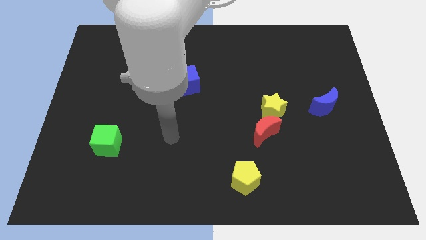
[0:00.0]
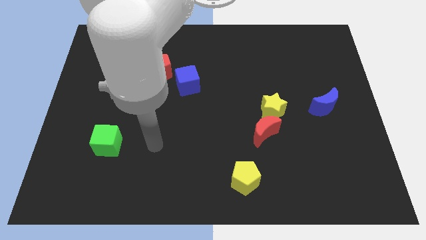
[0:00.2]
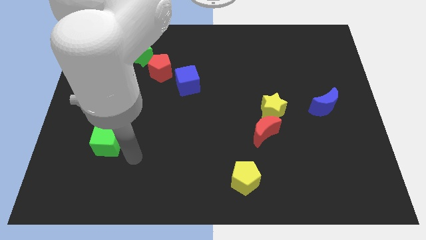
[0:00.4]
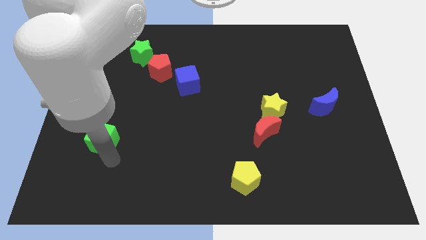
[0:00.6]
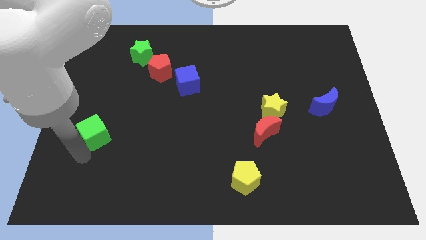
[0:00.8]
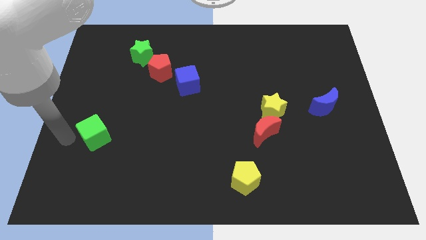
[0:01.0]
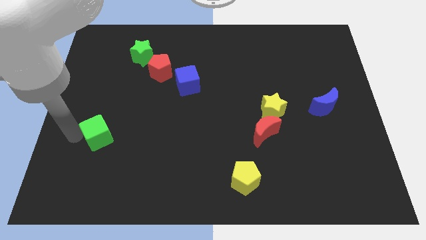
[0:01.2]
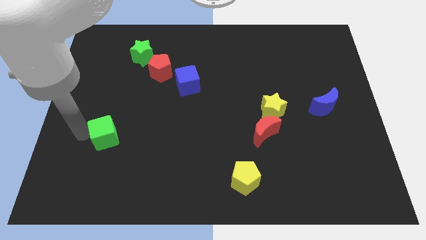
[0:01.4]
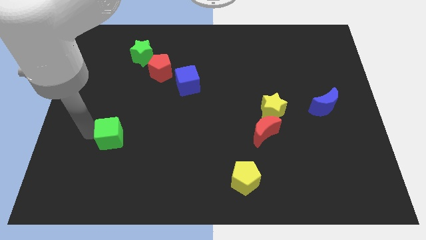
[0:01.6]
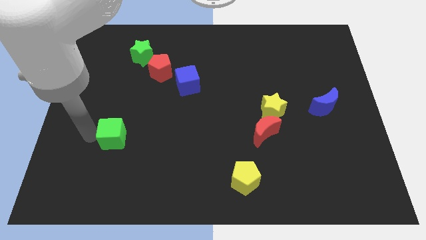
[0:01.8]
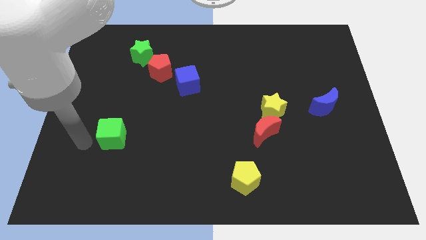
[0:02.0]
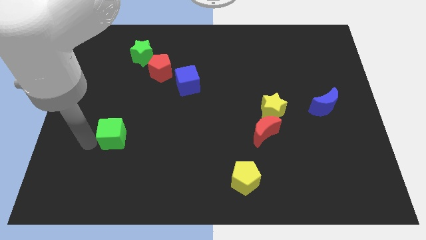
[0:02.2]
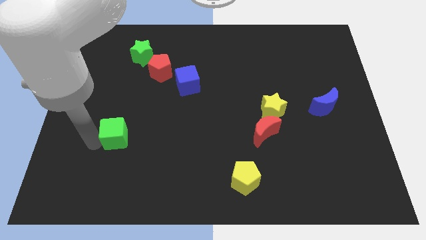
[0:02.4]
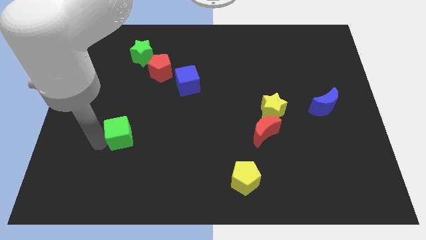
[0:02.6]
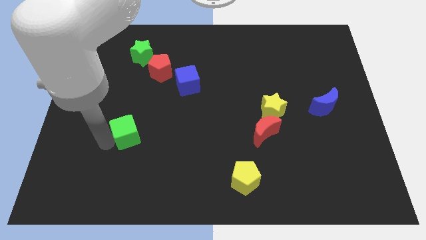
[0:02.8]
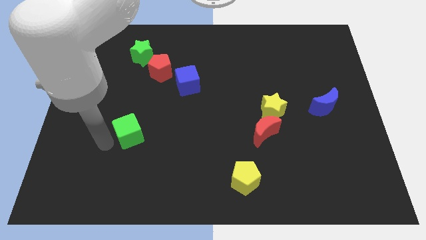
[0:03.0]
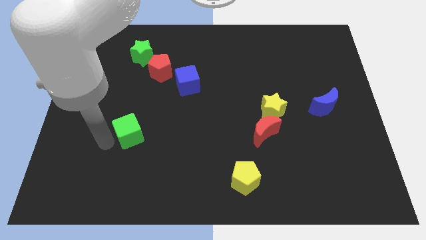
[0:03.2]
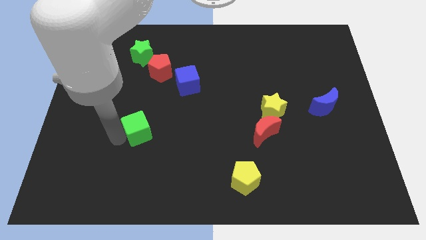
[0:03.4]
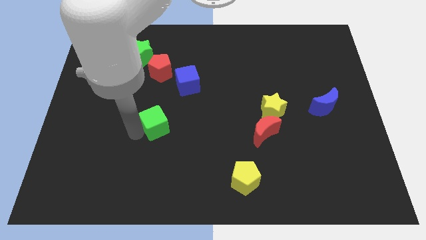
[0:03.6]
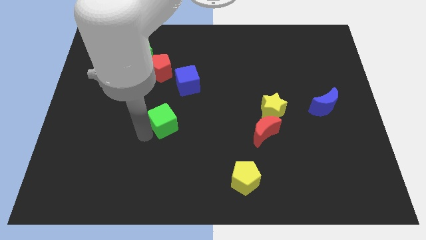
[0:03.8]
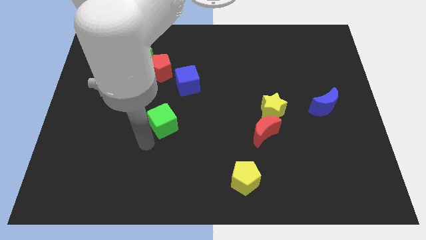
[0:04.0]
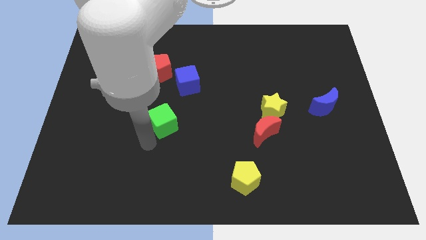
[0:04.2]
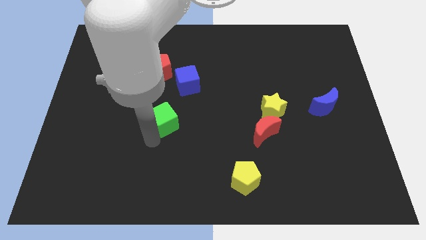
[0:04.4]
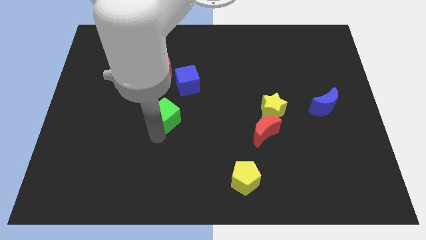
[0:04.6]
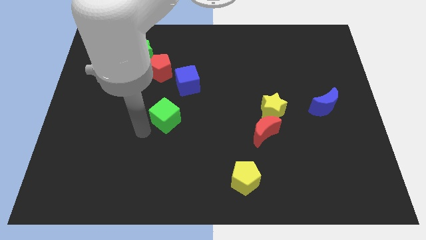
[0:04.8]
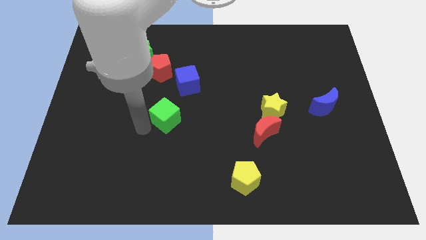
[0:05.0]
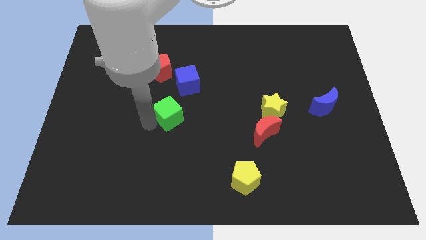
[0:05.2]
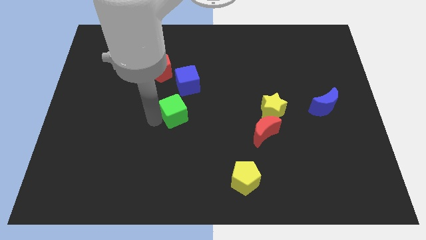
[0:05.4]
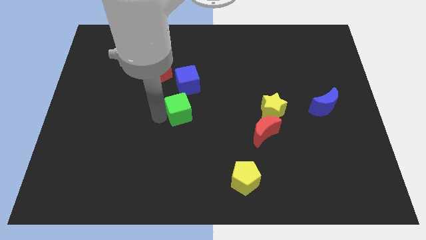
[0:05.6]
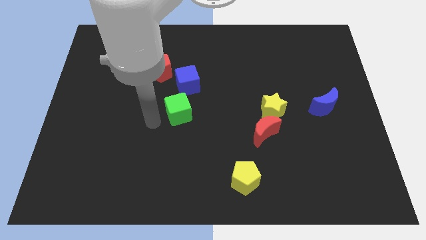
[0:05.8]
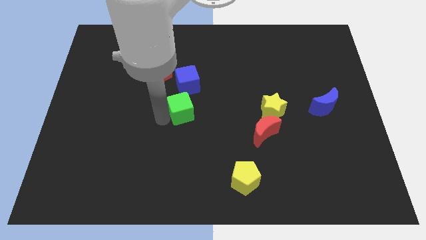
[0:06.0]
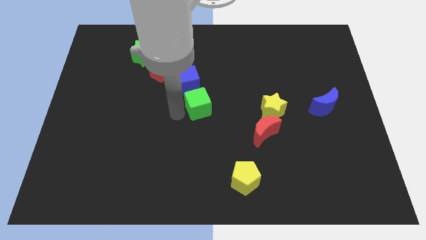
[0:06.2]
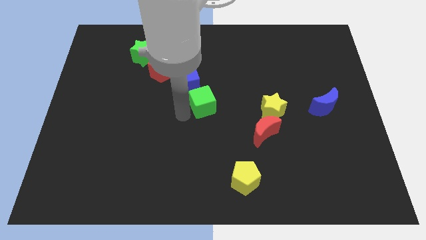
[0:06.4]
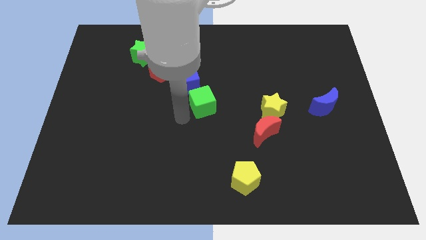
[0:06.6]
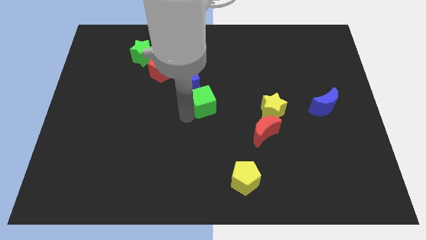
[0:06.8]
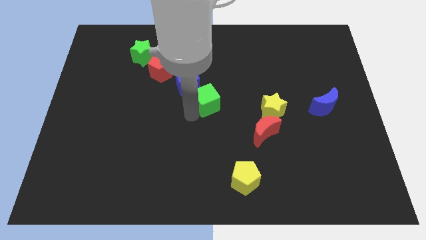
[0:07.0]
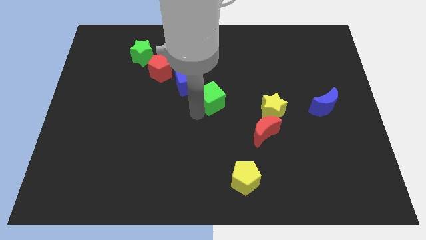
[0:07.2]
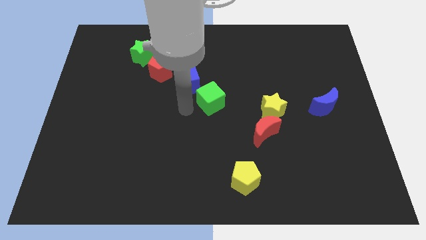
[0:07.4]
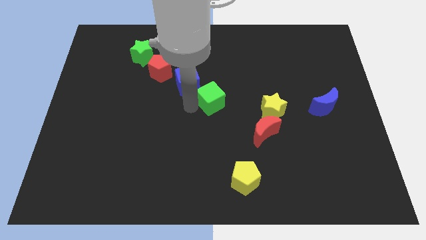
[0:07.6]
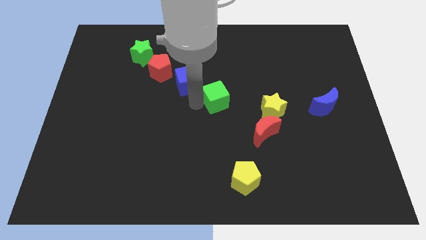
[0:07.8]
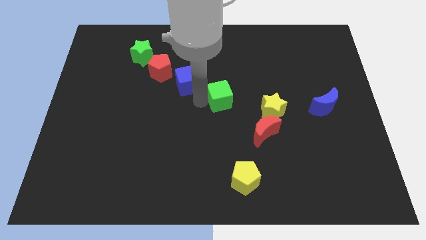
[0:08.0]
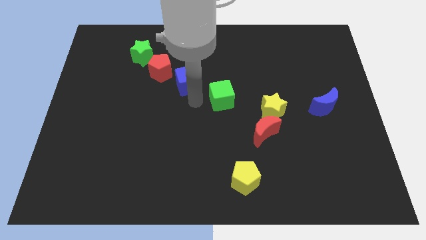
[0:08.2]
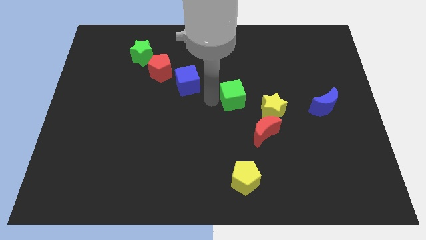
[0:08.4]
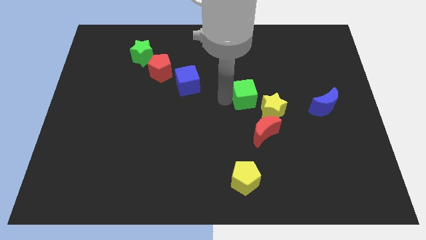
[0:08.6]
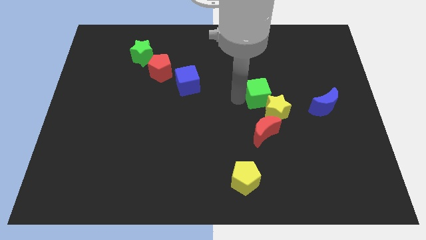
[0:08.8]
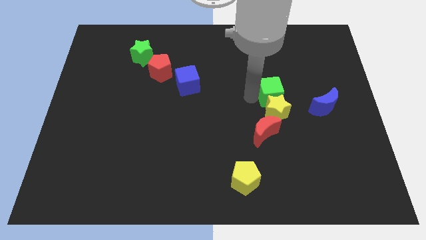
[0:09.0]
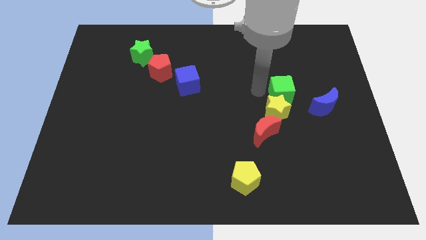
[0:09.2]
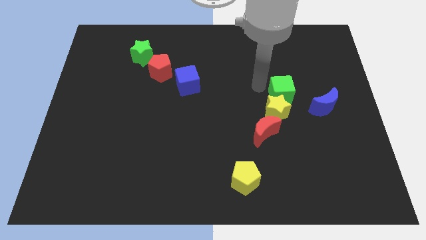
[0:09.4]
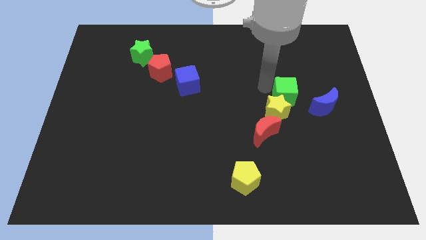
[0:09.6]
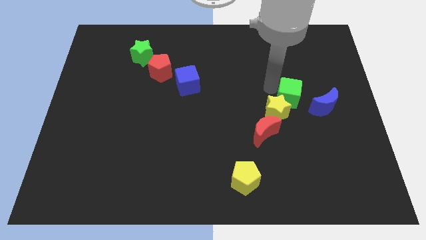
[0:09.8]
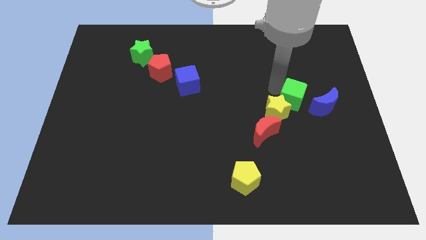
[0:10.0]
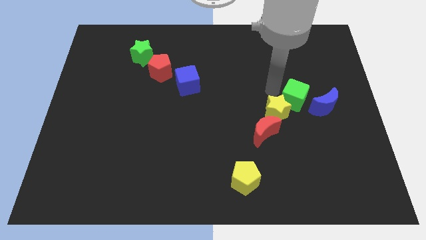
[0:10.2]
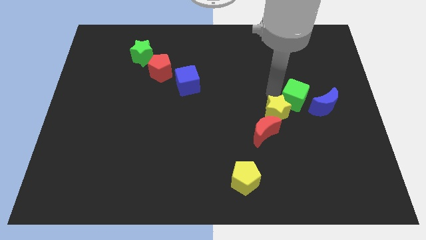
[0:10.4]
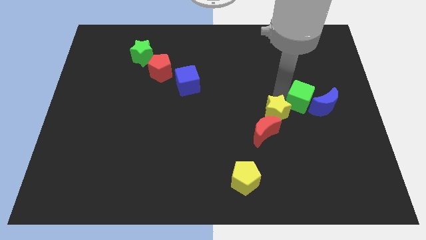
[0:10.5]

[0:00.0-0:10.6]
put the green cube to the blue moon
